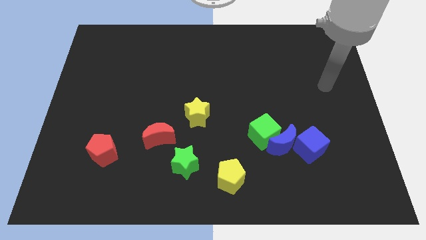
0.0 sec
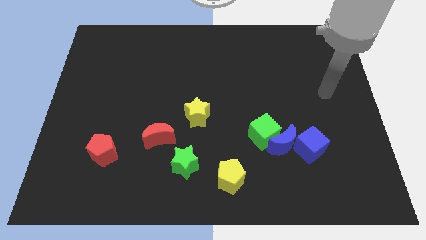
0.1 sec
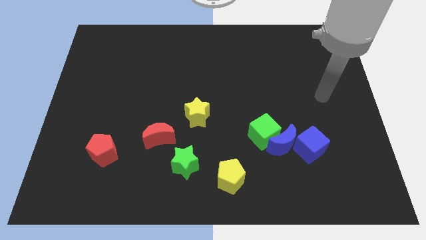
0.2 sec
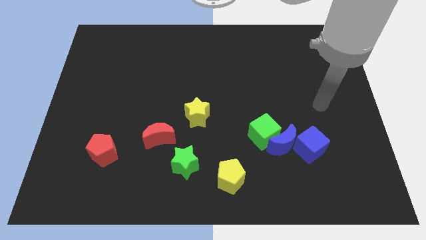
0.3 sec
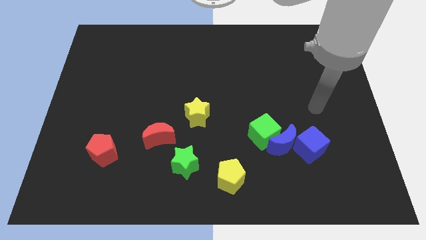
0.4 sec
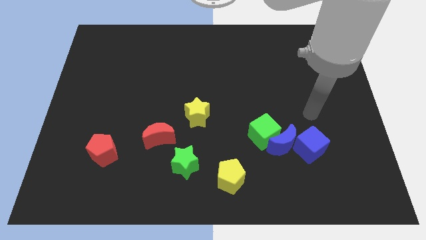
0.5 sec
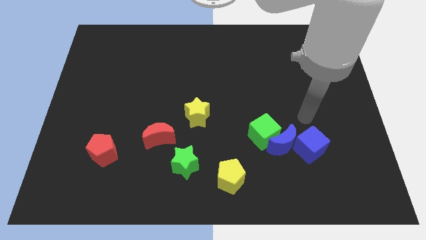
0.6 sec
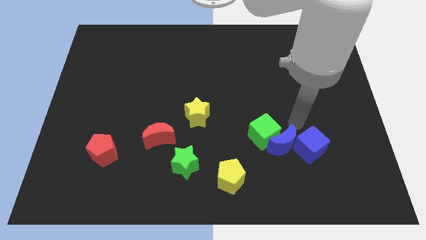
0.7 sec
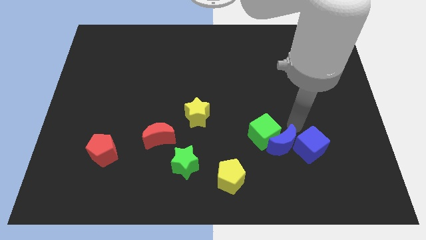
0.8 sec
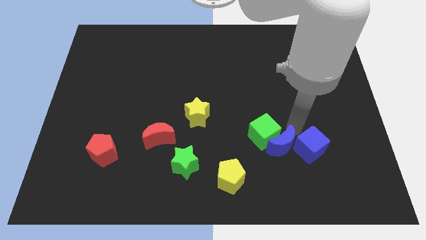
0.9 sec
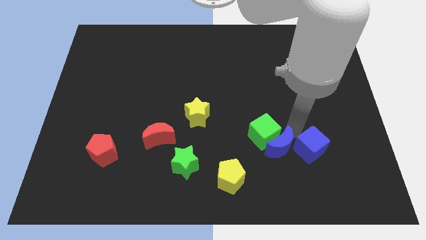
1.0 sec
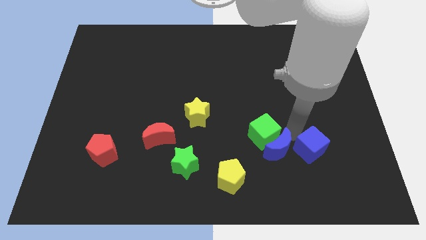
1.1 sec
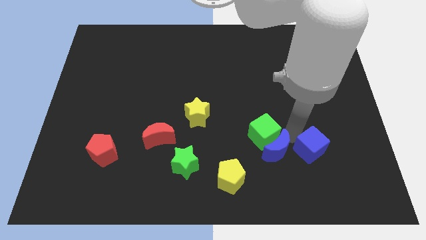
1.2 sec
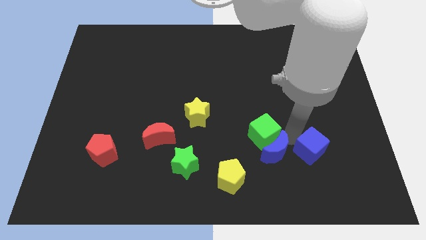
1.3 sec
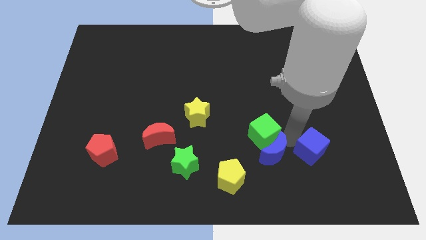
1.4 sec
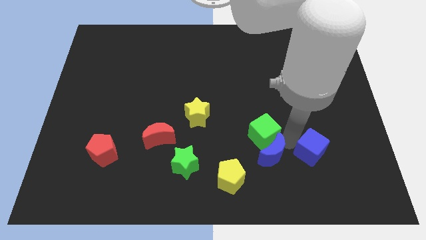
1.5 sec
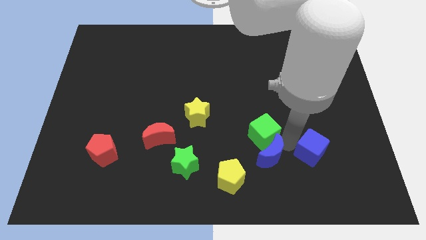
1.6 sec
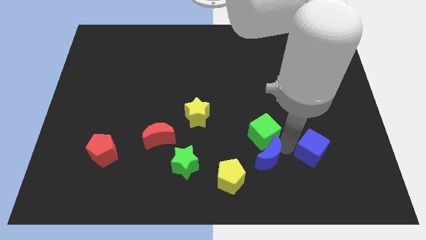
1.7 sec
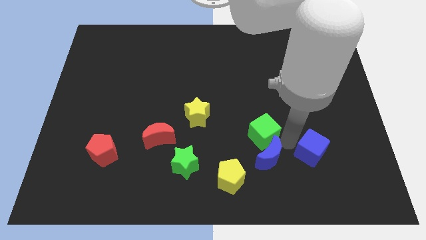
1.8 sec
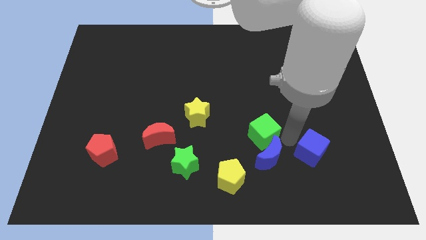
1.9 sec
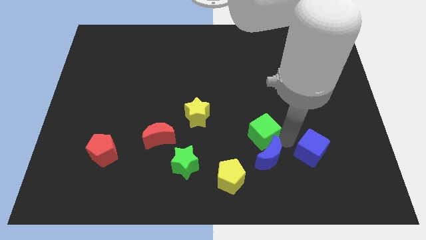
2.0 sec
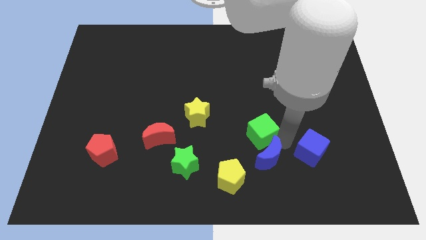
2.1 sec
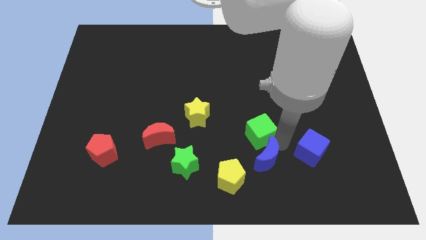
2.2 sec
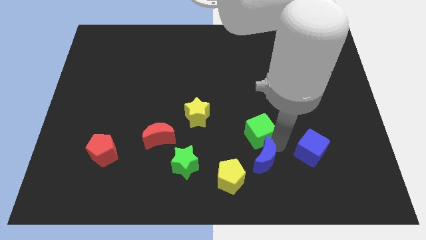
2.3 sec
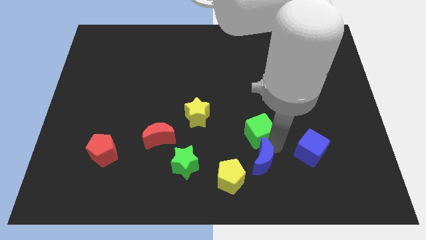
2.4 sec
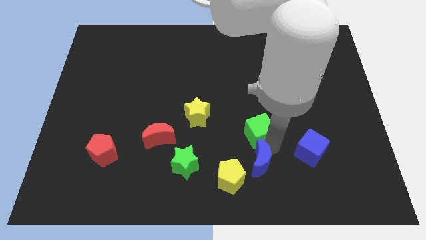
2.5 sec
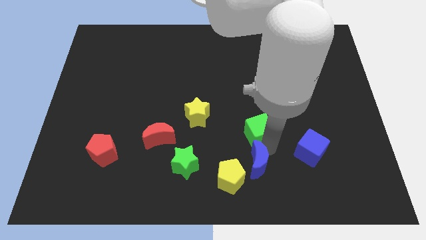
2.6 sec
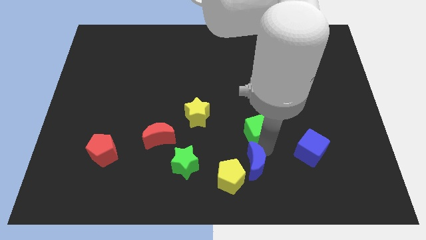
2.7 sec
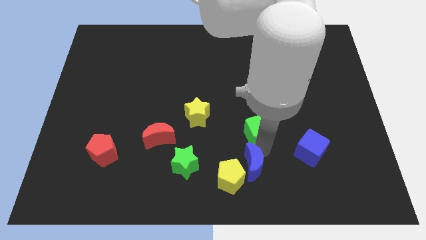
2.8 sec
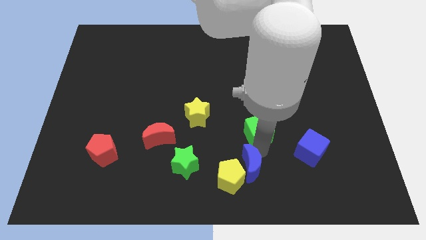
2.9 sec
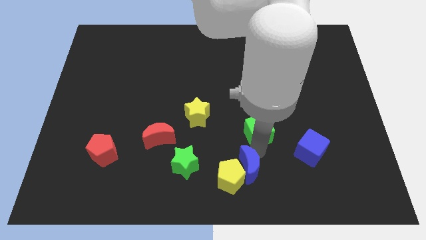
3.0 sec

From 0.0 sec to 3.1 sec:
move the blue moon away from the green cube and blue cube

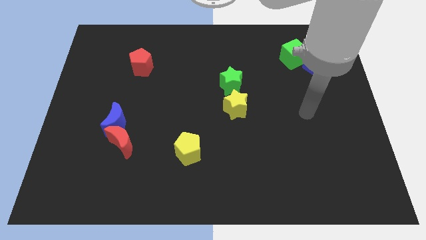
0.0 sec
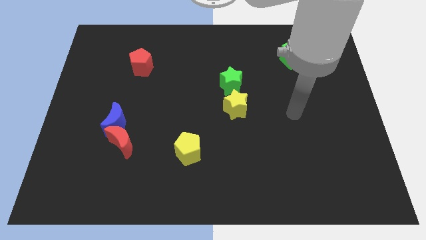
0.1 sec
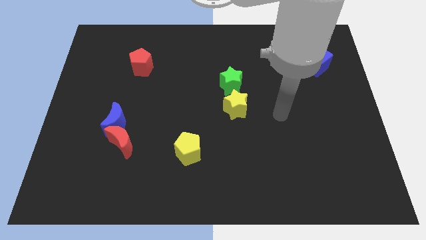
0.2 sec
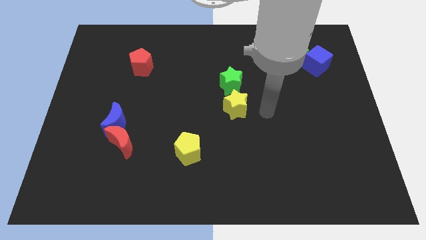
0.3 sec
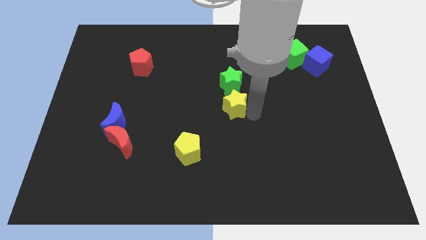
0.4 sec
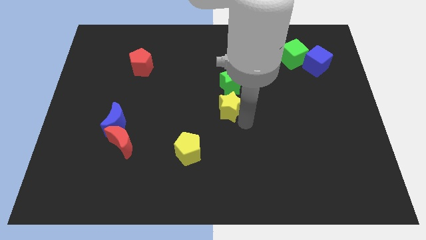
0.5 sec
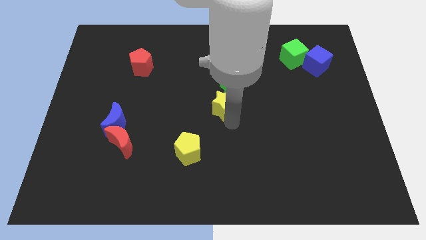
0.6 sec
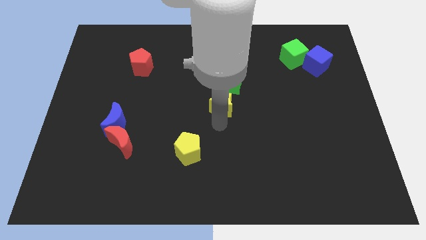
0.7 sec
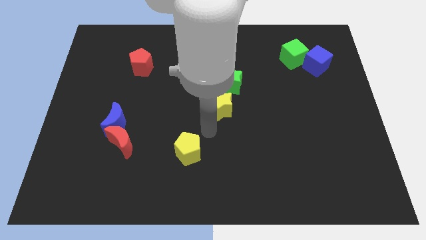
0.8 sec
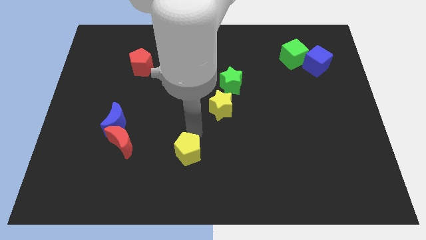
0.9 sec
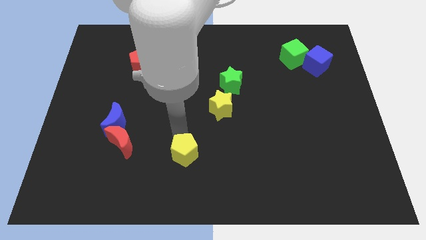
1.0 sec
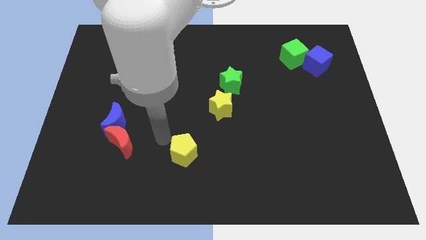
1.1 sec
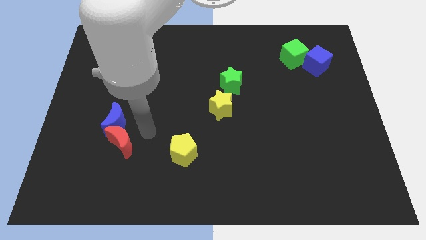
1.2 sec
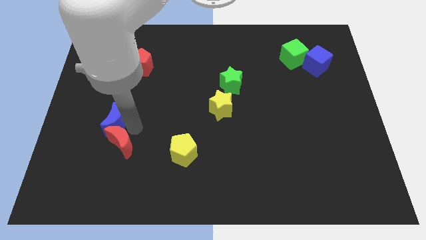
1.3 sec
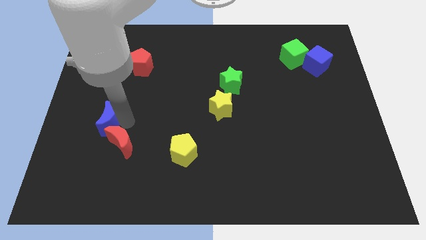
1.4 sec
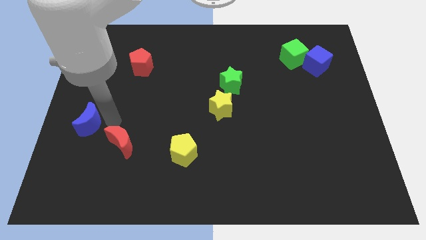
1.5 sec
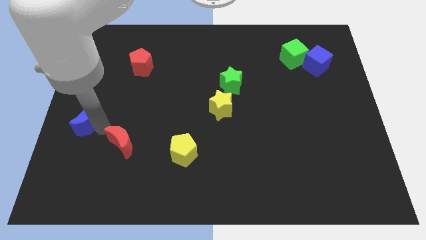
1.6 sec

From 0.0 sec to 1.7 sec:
pull the red moon apart from the blue moon

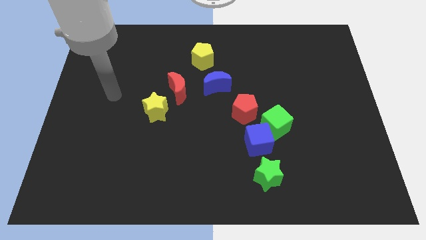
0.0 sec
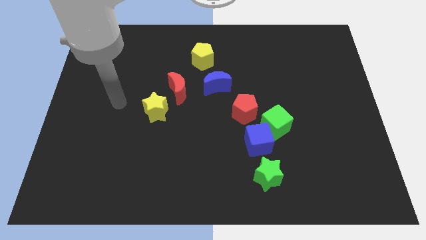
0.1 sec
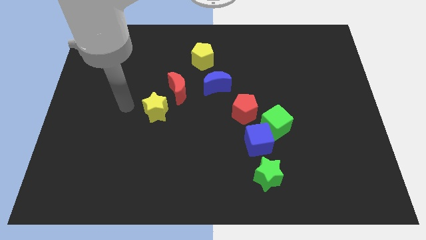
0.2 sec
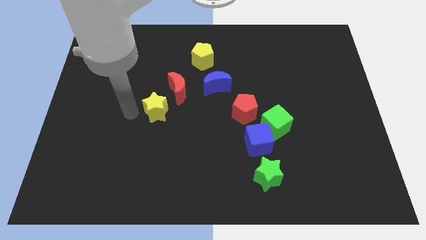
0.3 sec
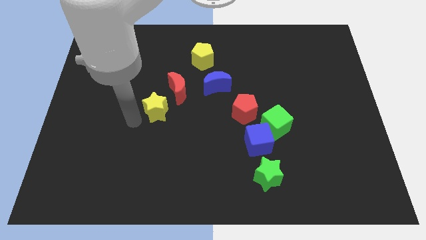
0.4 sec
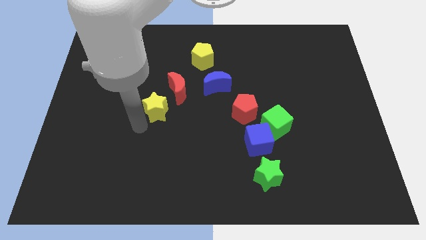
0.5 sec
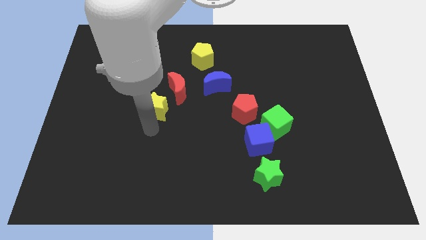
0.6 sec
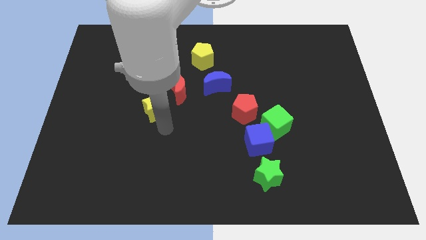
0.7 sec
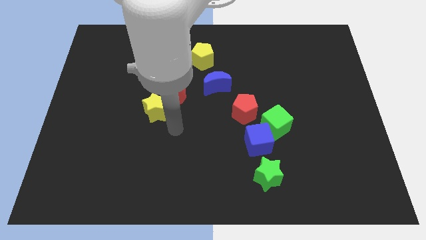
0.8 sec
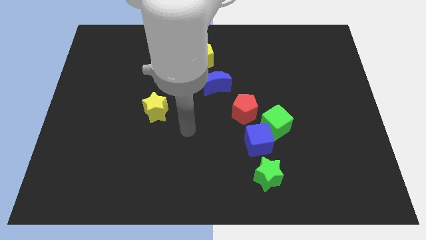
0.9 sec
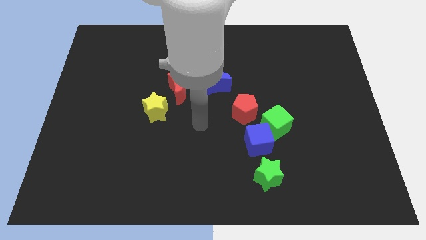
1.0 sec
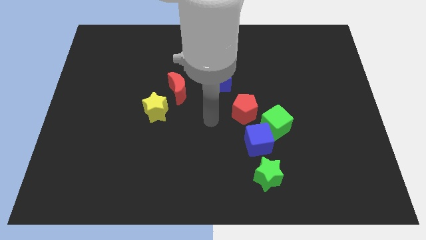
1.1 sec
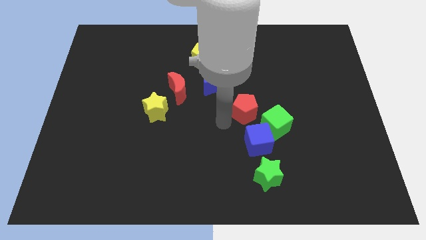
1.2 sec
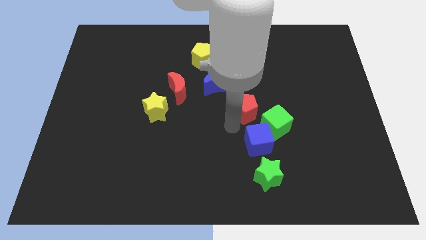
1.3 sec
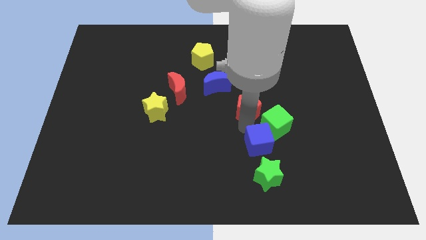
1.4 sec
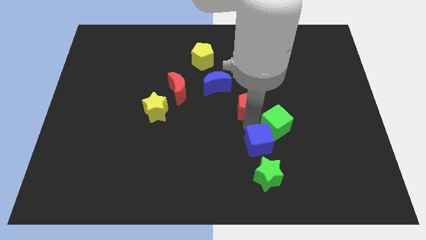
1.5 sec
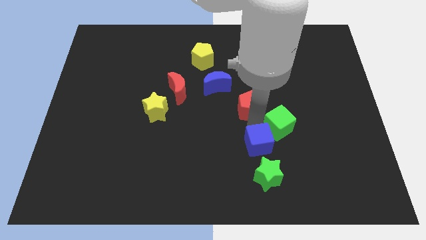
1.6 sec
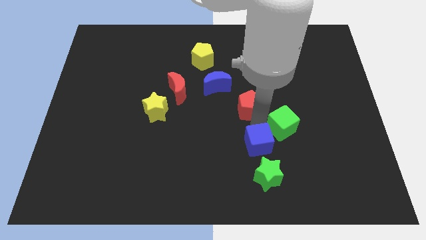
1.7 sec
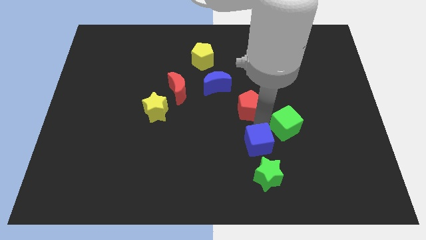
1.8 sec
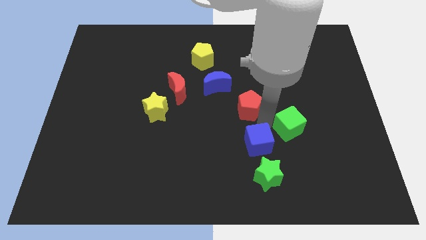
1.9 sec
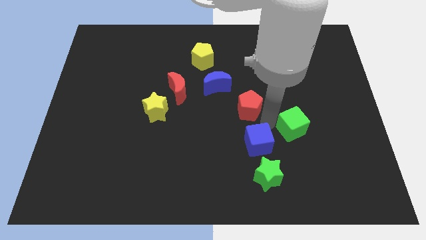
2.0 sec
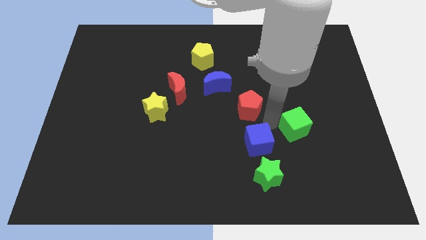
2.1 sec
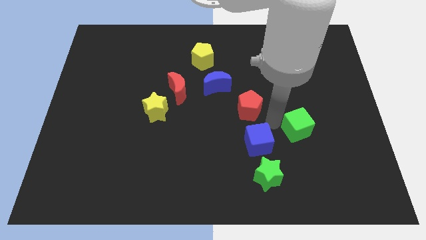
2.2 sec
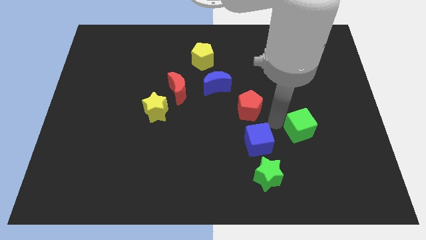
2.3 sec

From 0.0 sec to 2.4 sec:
separate the green cube from the blue cube and red pentagon

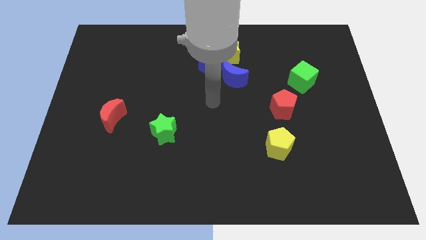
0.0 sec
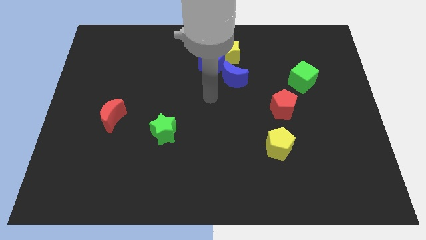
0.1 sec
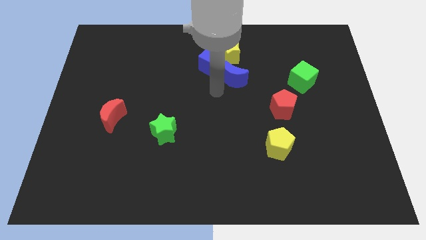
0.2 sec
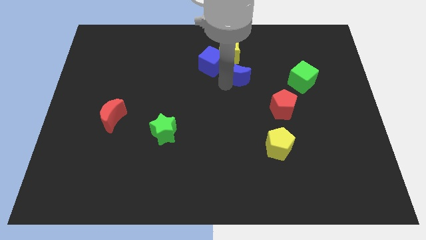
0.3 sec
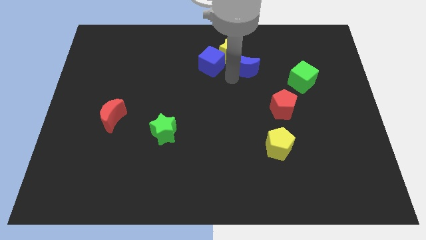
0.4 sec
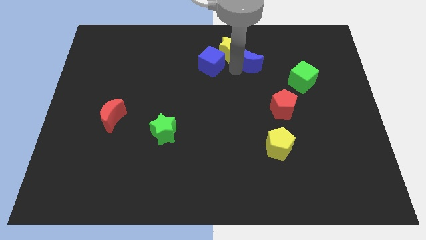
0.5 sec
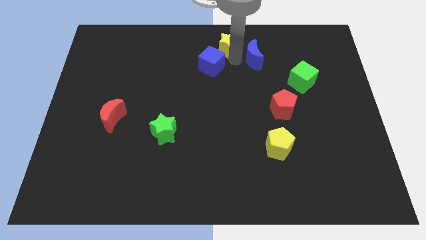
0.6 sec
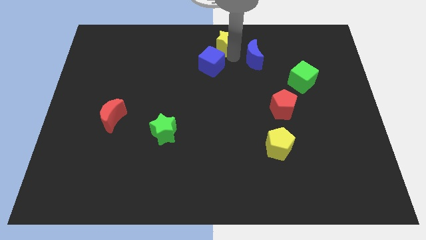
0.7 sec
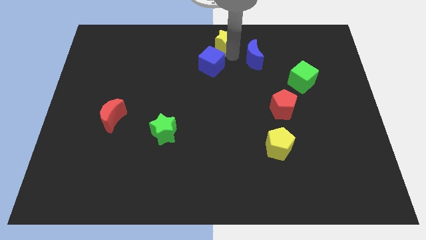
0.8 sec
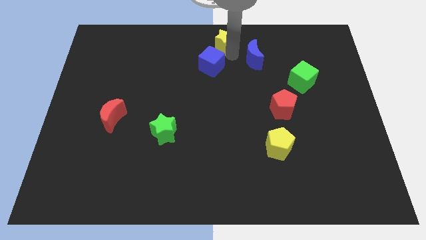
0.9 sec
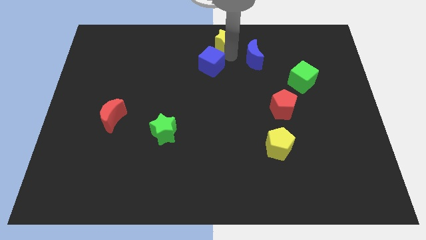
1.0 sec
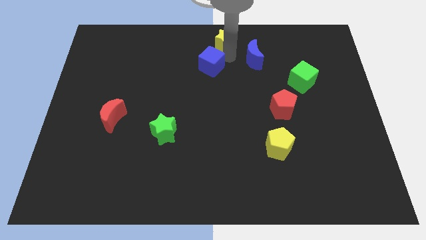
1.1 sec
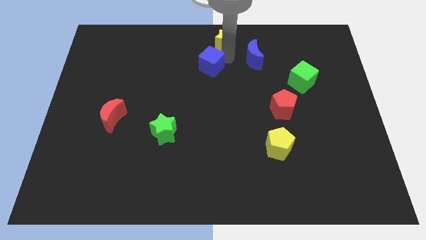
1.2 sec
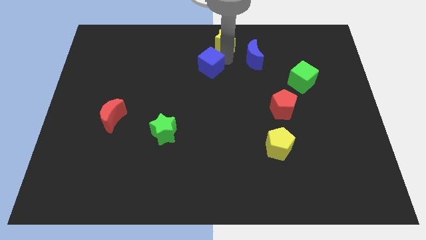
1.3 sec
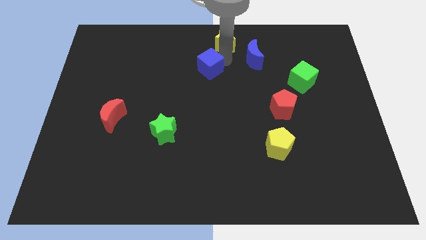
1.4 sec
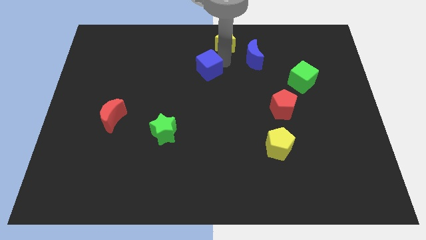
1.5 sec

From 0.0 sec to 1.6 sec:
separate the blue cube from the yellow star and blue moon

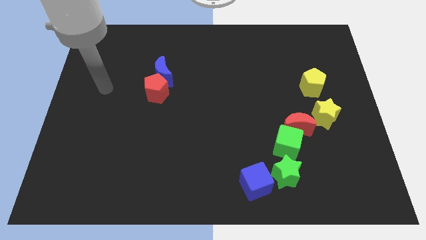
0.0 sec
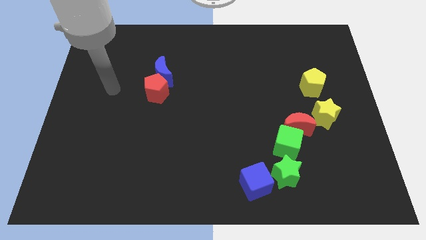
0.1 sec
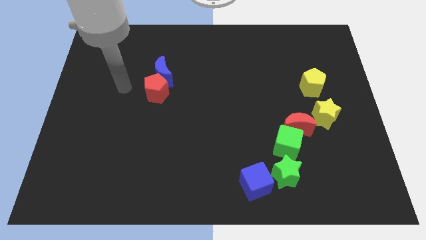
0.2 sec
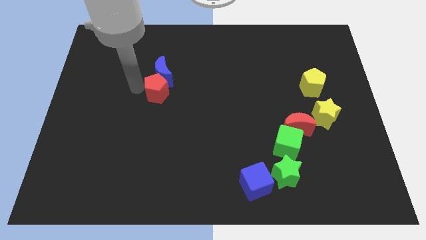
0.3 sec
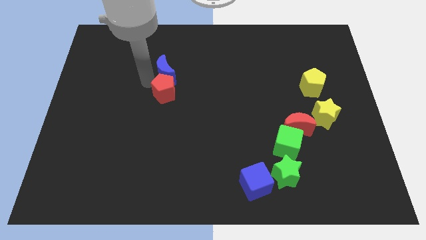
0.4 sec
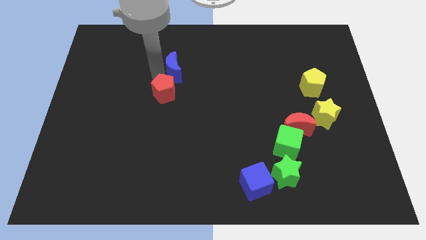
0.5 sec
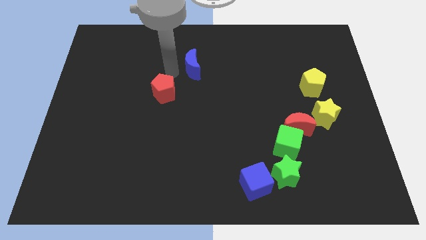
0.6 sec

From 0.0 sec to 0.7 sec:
pull the red pentagon apart from the blue moon
